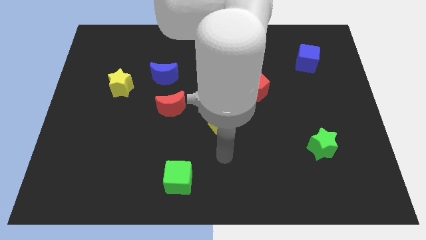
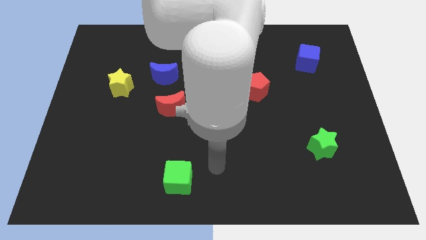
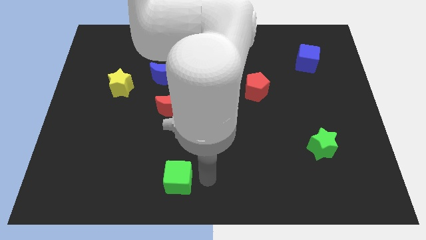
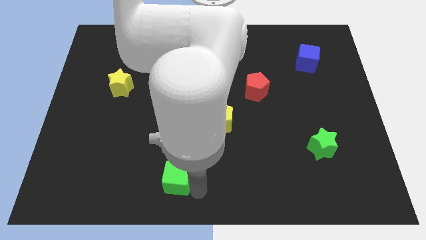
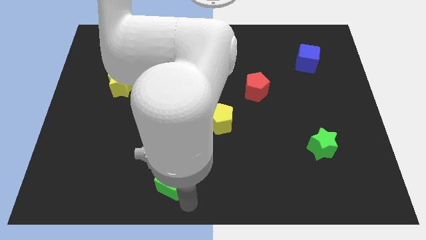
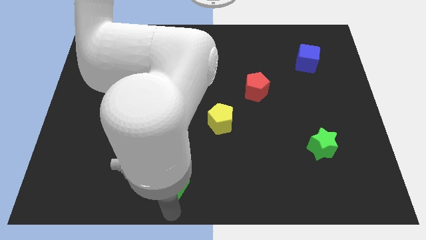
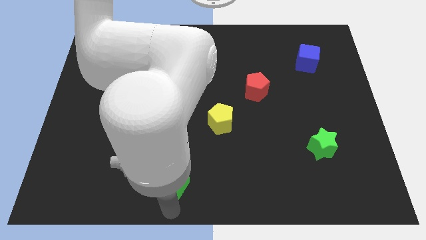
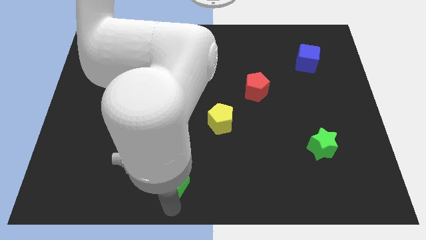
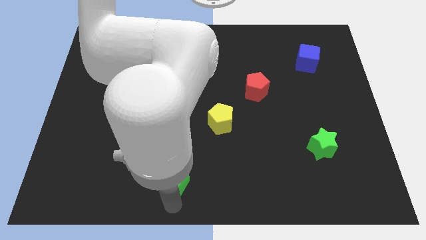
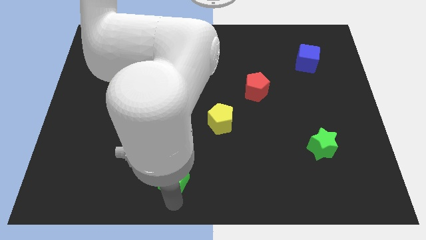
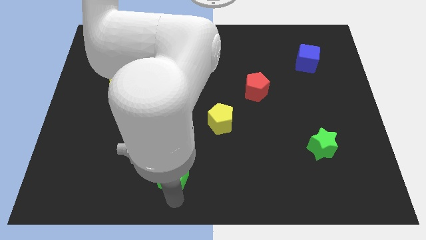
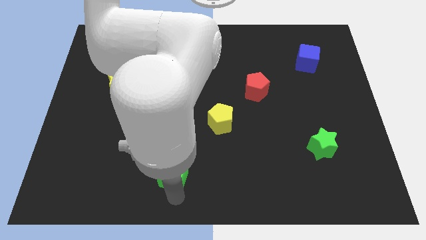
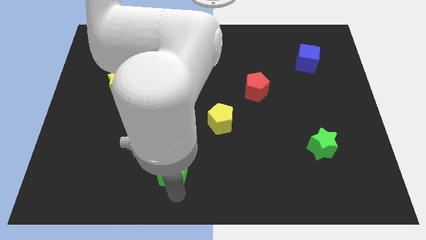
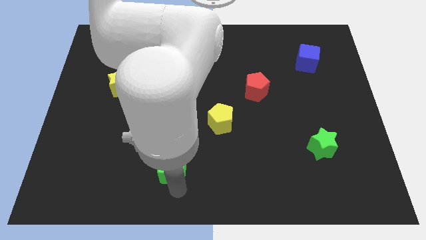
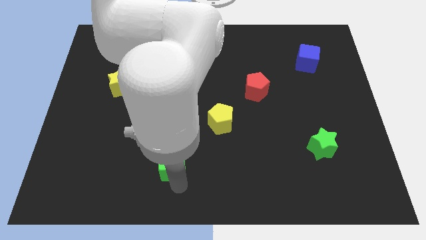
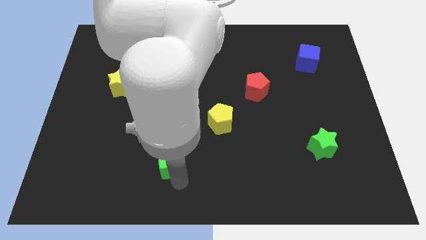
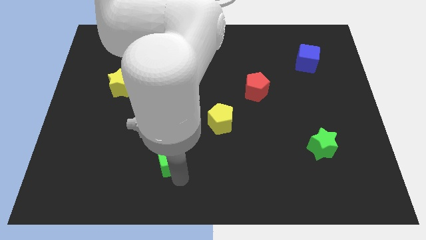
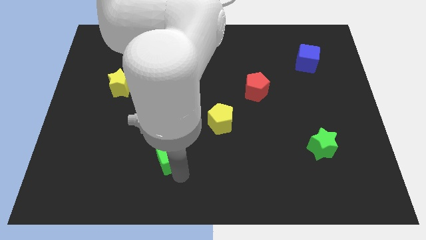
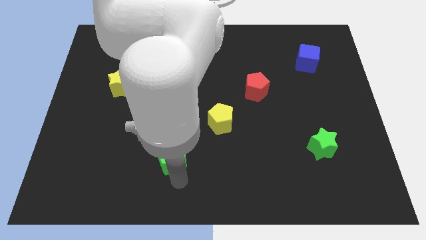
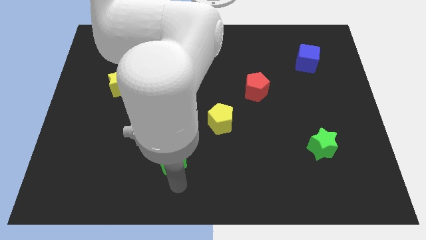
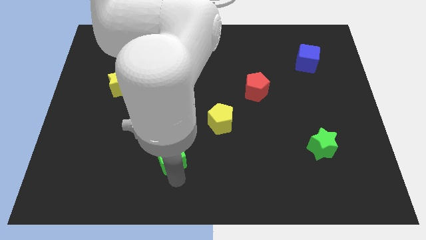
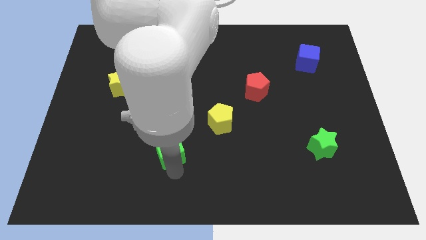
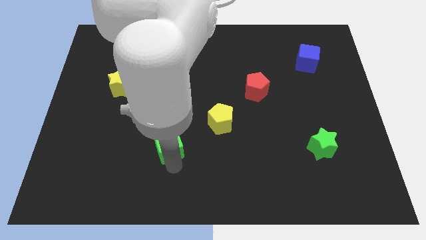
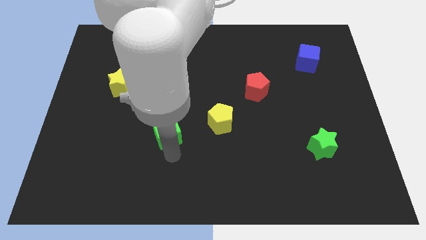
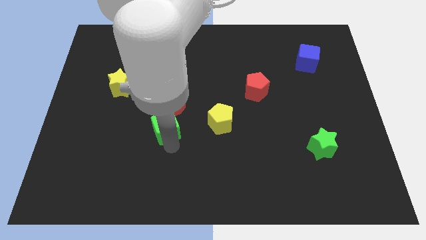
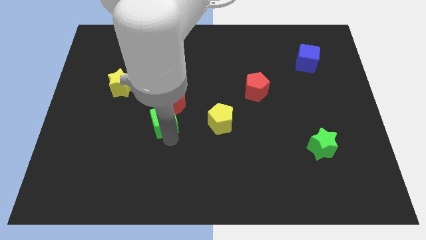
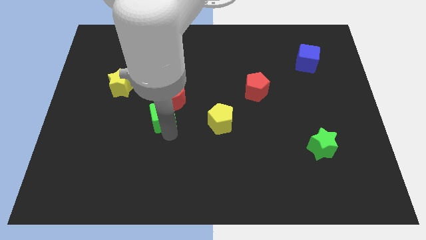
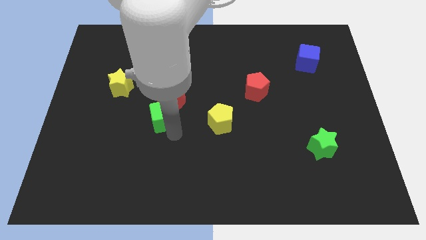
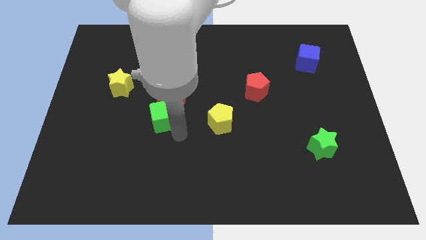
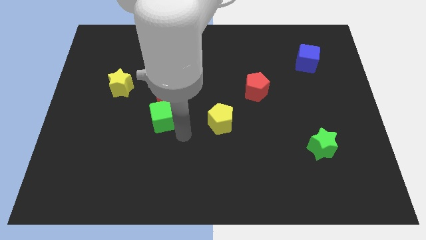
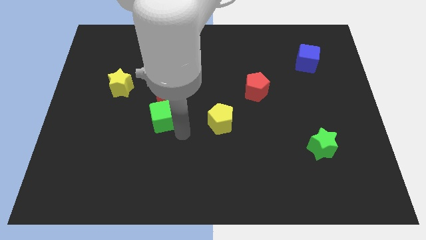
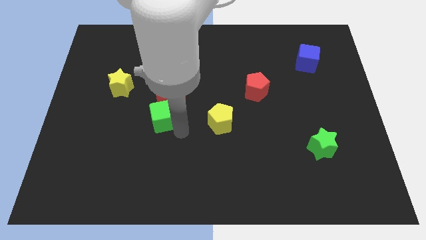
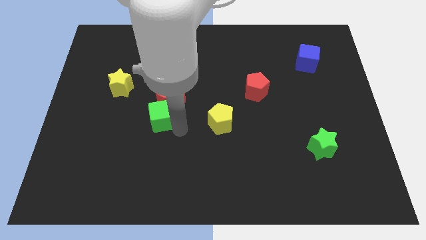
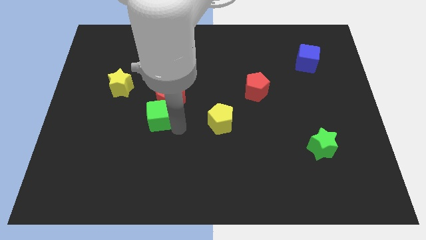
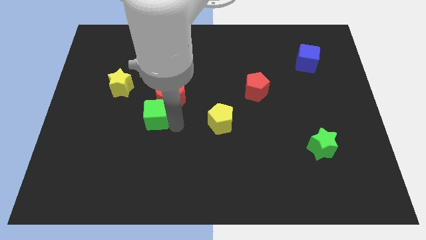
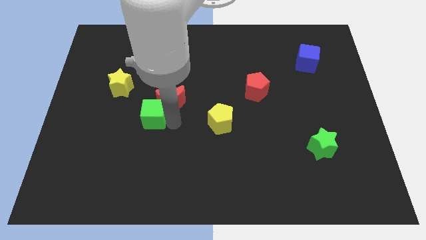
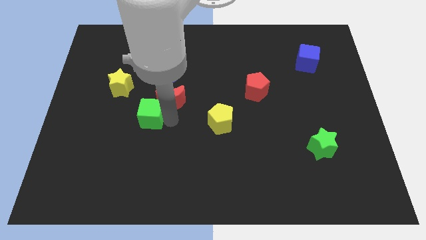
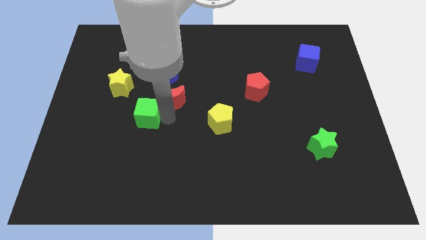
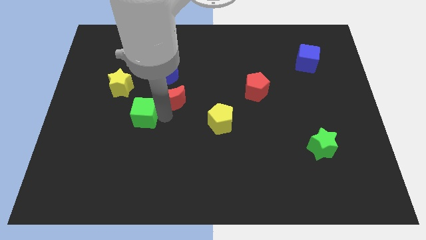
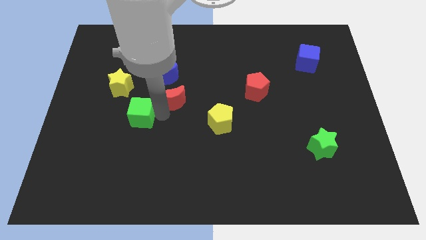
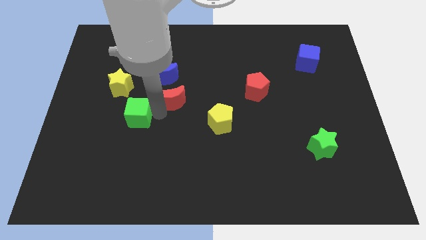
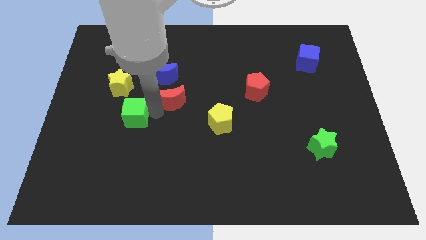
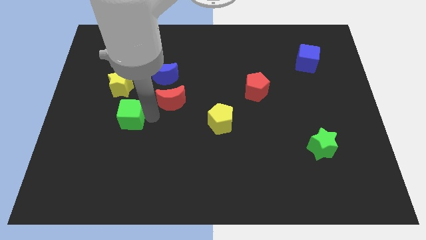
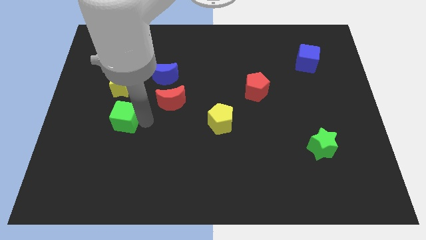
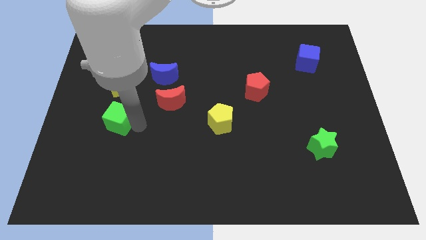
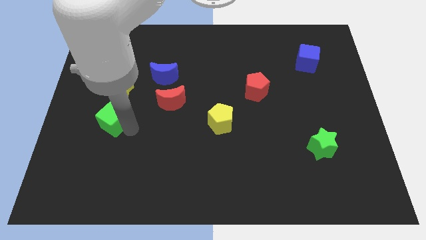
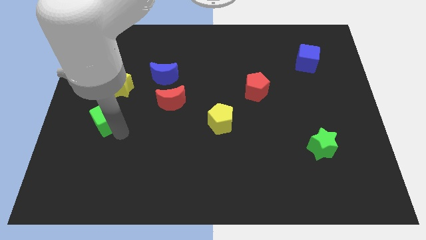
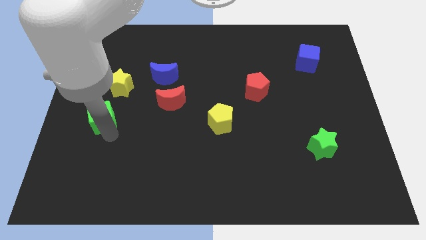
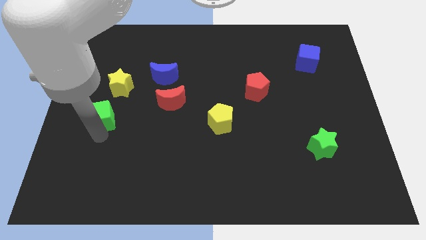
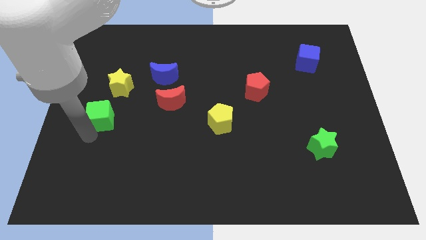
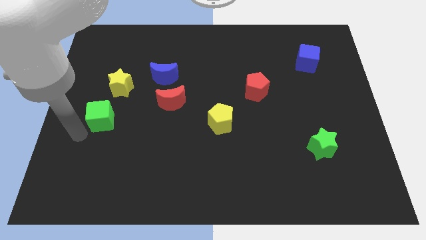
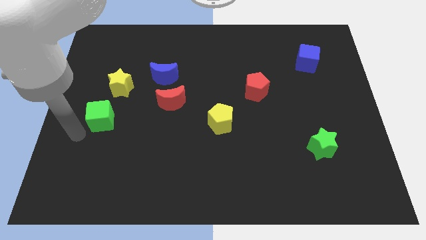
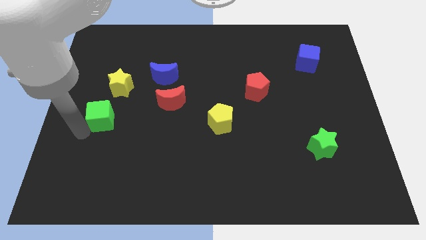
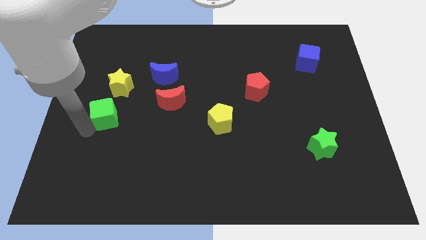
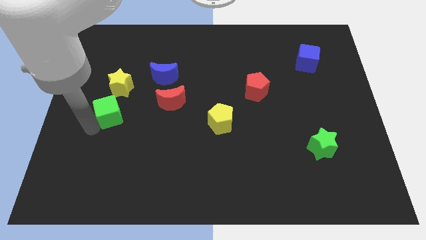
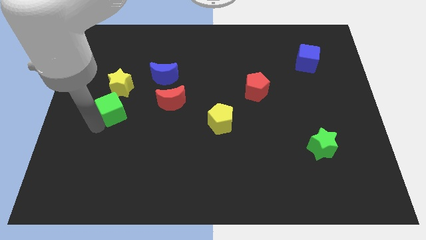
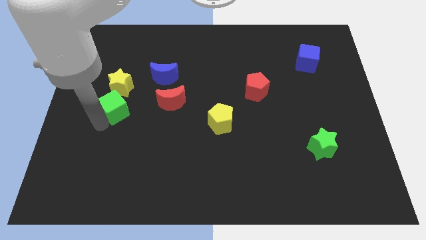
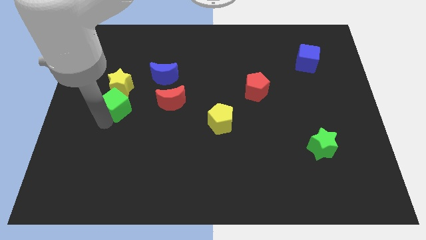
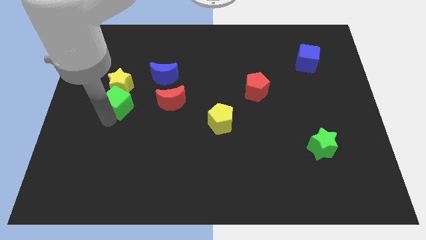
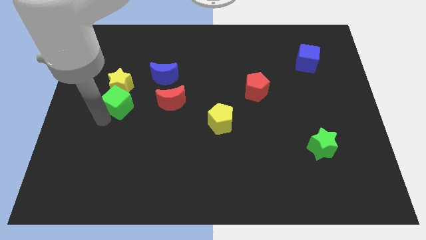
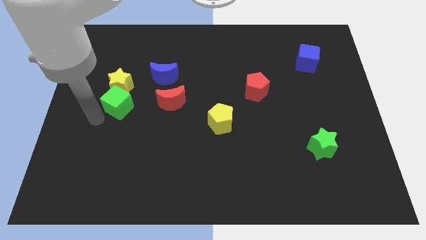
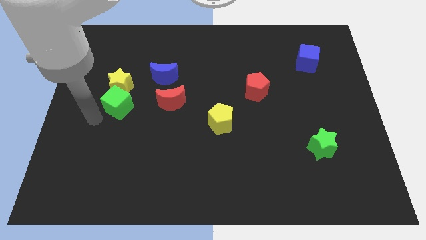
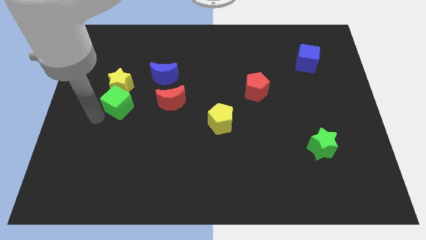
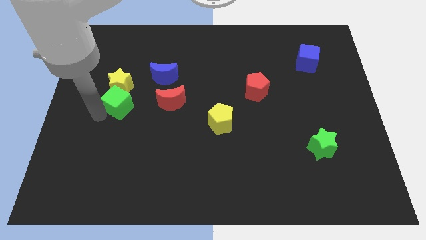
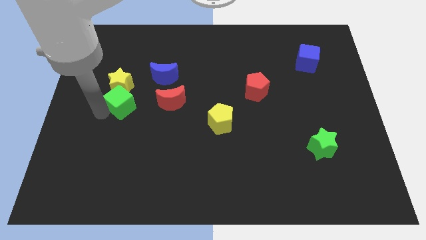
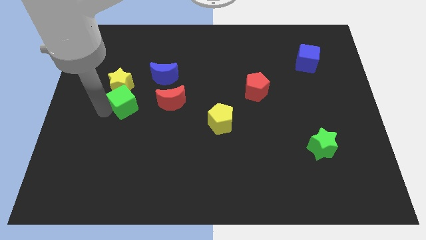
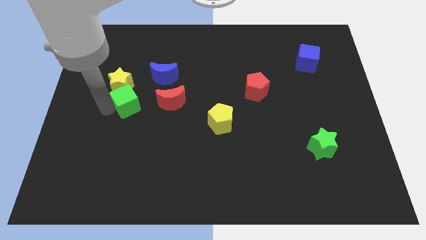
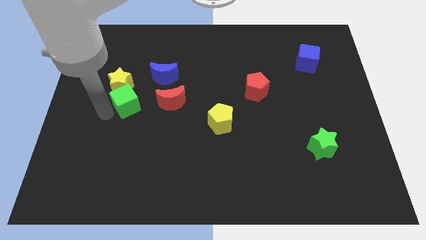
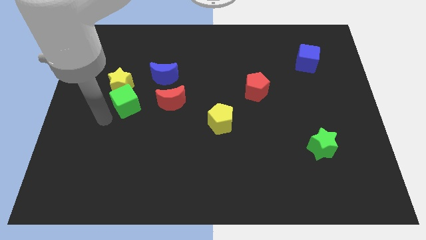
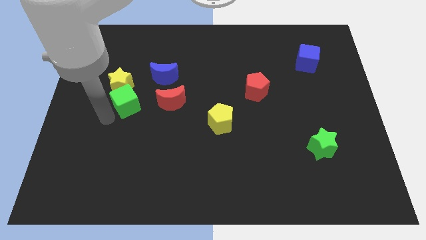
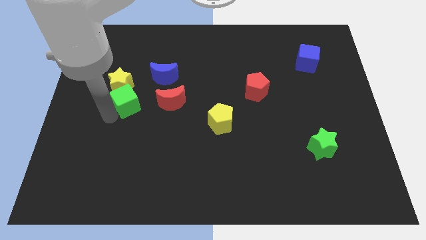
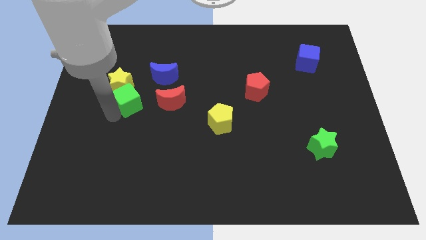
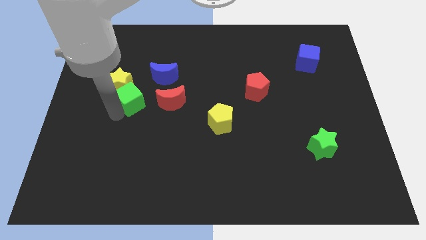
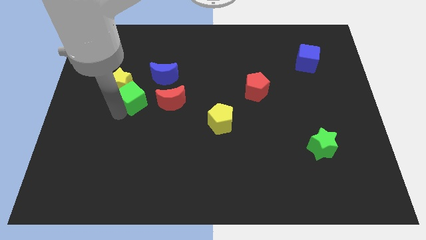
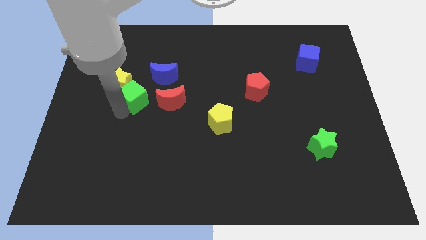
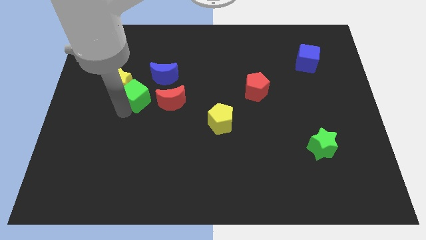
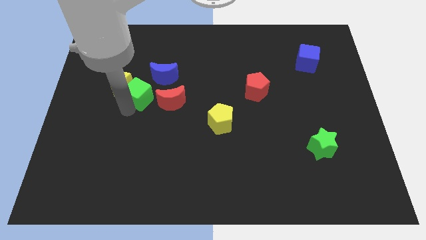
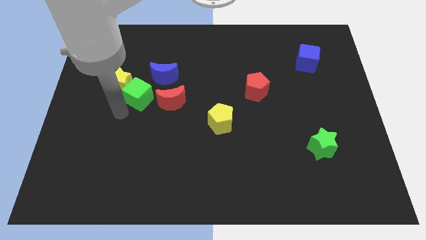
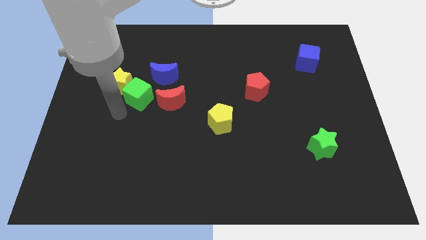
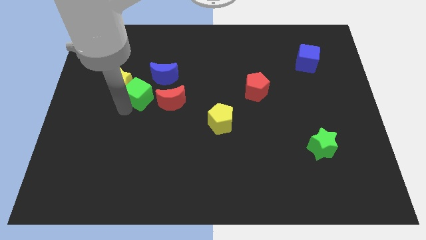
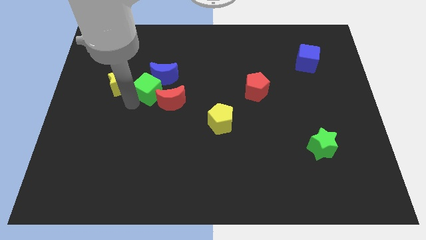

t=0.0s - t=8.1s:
put the green cube to the blue moon
